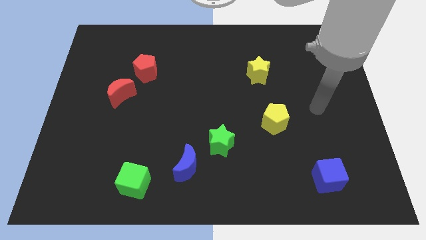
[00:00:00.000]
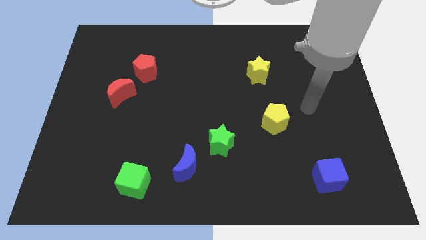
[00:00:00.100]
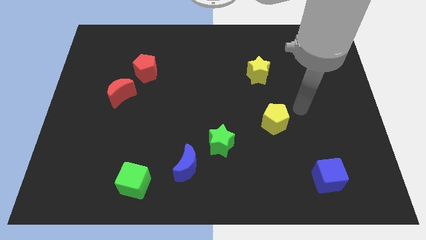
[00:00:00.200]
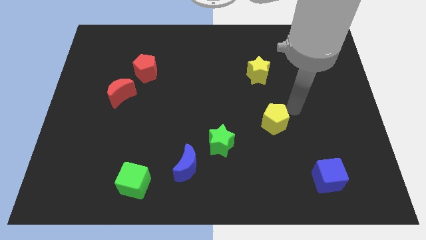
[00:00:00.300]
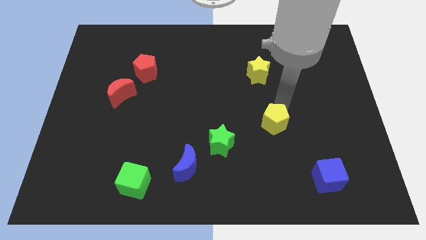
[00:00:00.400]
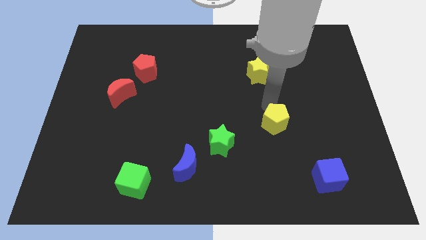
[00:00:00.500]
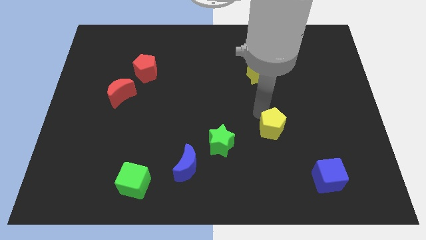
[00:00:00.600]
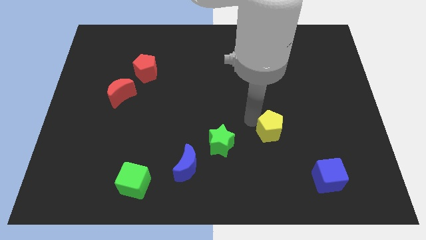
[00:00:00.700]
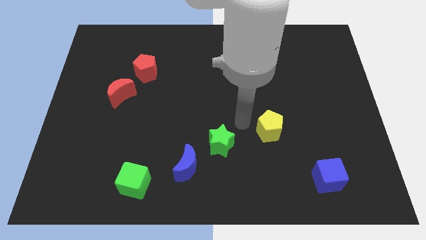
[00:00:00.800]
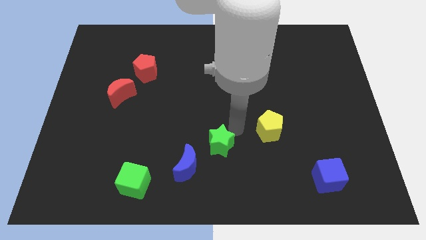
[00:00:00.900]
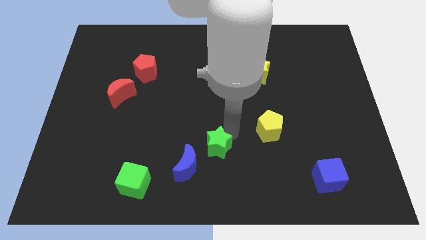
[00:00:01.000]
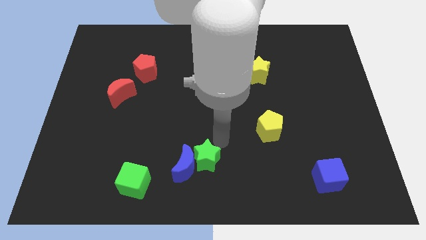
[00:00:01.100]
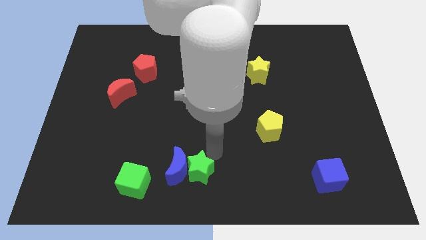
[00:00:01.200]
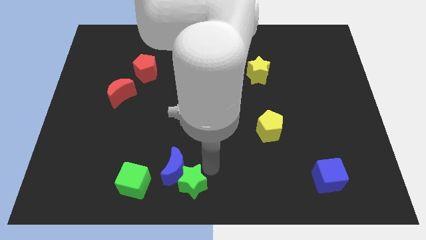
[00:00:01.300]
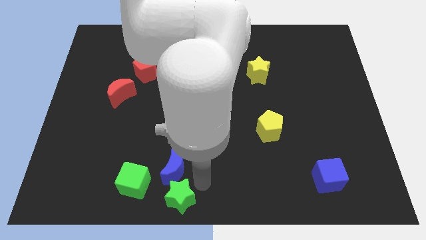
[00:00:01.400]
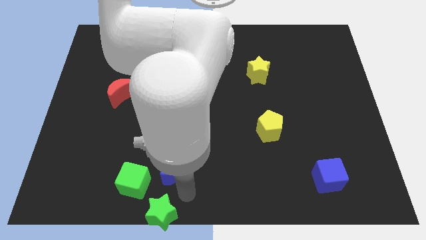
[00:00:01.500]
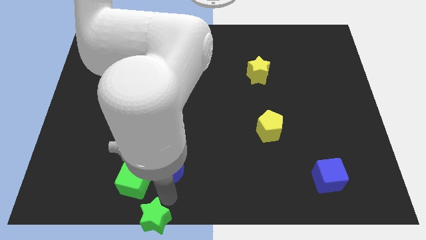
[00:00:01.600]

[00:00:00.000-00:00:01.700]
move the blue moon away from the green star

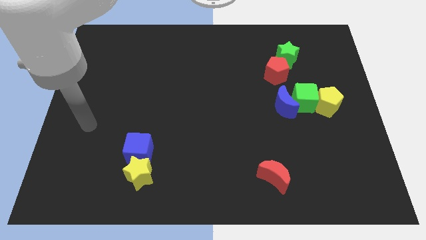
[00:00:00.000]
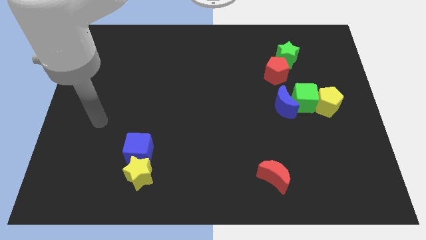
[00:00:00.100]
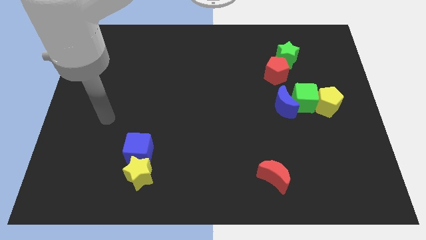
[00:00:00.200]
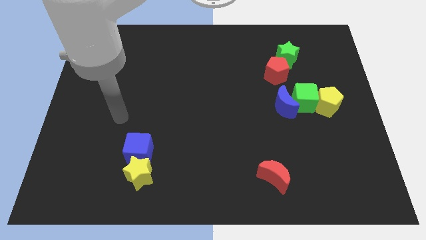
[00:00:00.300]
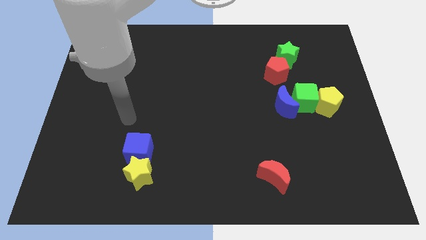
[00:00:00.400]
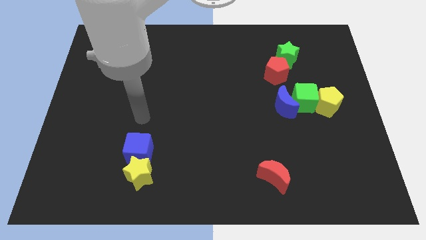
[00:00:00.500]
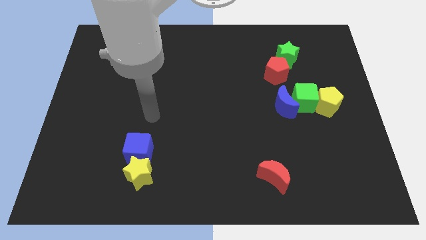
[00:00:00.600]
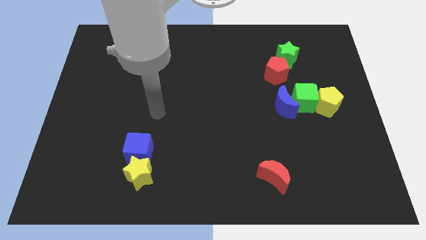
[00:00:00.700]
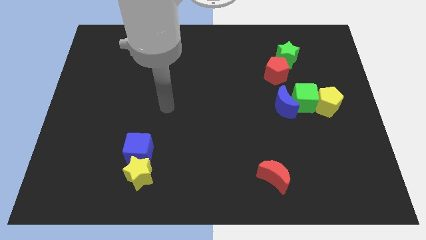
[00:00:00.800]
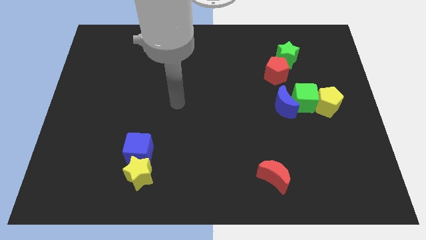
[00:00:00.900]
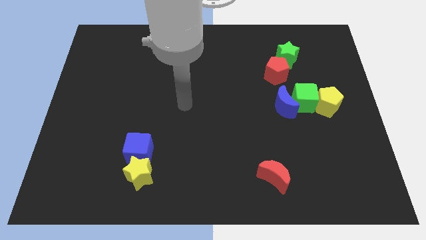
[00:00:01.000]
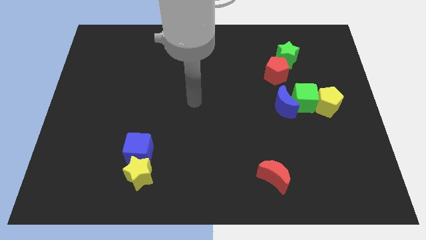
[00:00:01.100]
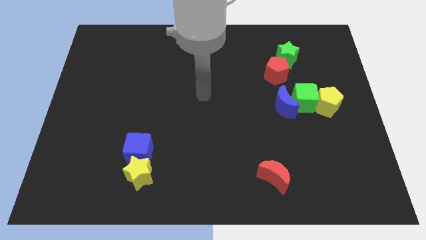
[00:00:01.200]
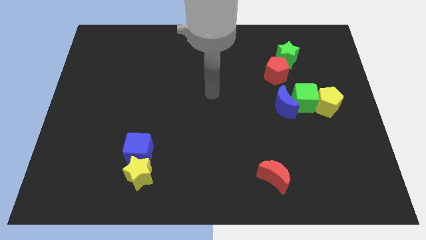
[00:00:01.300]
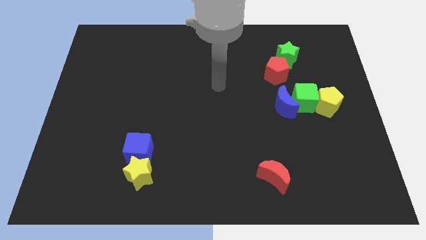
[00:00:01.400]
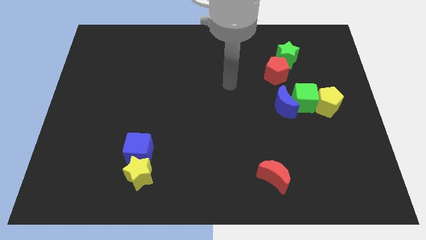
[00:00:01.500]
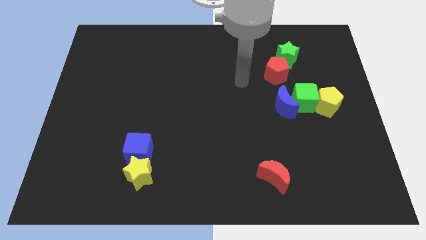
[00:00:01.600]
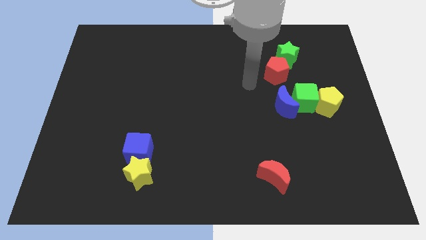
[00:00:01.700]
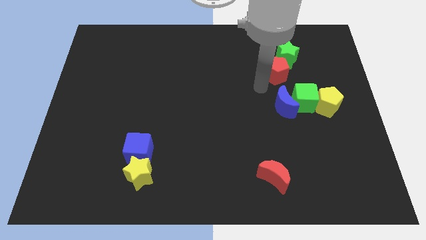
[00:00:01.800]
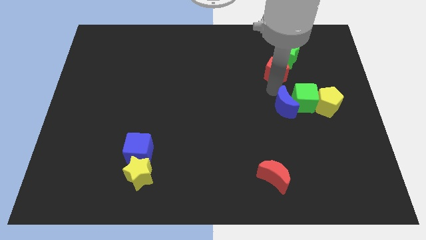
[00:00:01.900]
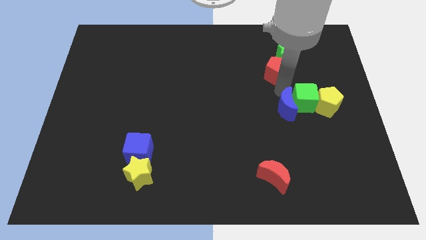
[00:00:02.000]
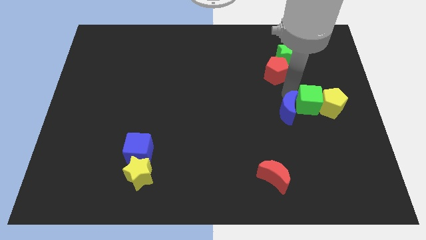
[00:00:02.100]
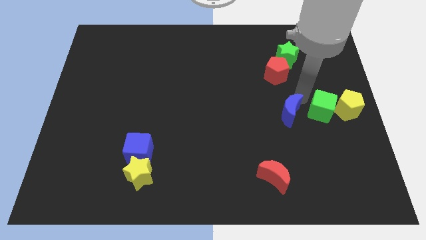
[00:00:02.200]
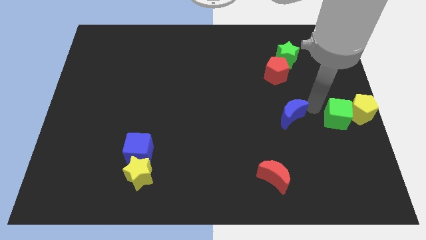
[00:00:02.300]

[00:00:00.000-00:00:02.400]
move the blue moon away from the green cube

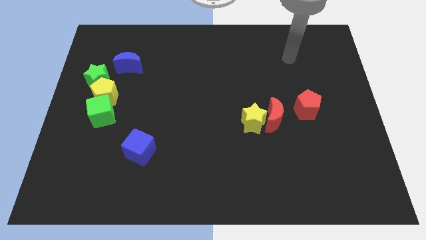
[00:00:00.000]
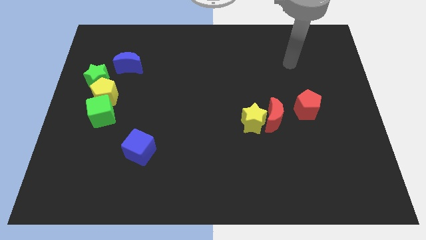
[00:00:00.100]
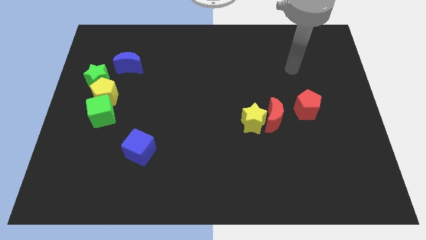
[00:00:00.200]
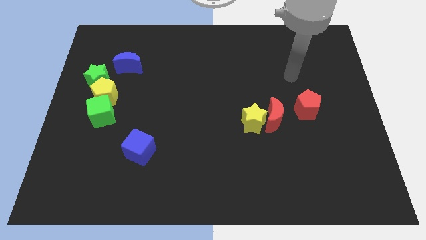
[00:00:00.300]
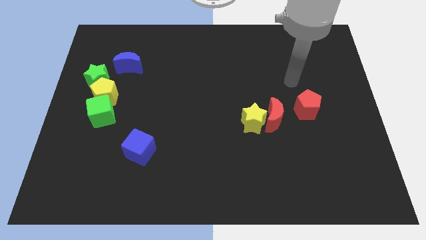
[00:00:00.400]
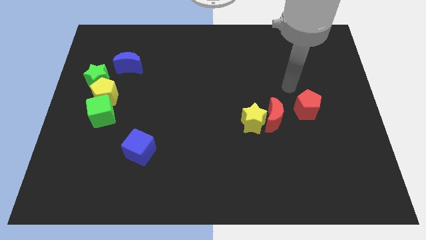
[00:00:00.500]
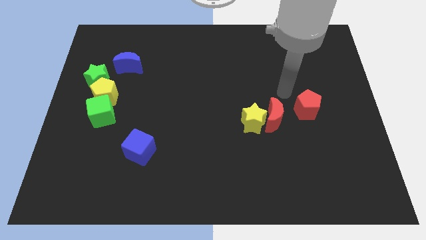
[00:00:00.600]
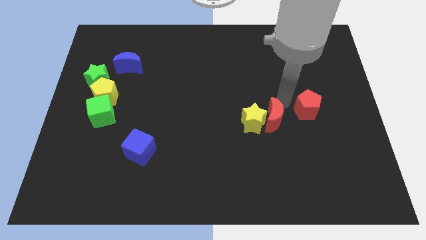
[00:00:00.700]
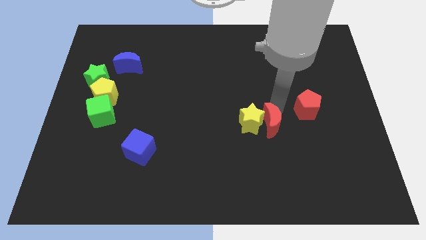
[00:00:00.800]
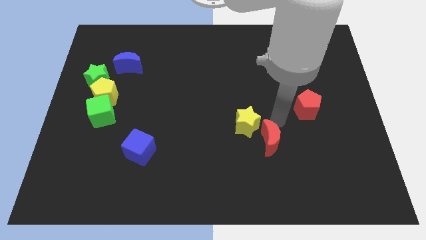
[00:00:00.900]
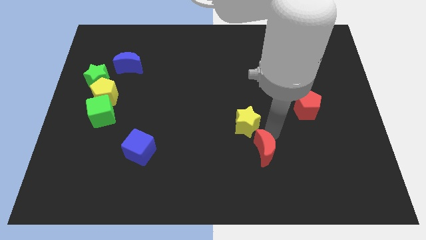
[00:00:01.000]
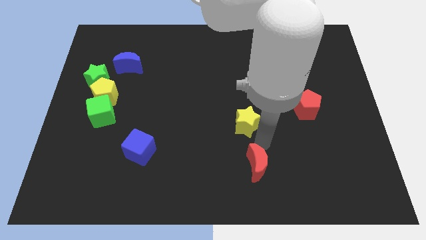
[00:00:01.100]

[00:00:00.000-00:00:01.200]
pull the yellow star apart from the red moon

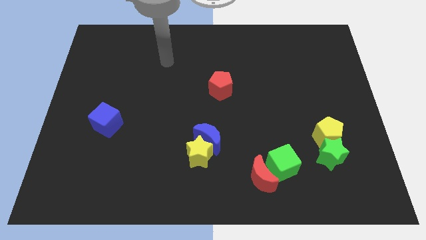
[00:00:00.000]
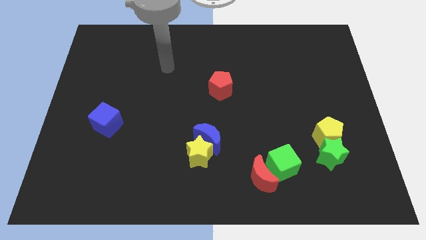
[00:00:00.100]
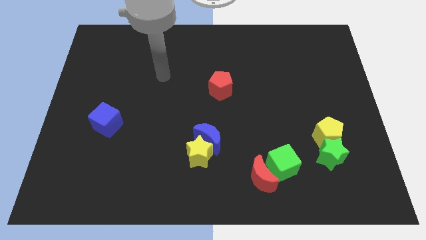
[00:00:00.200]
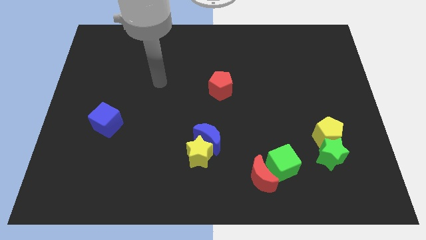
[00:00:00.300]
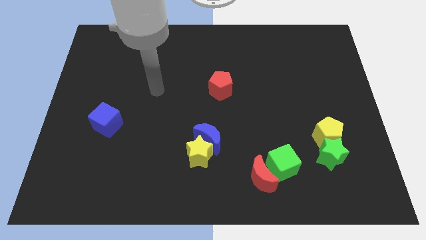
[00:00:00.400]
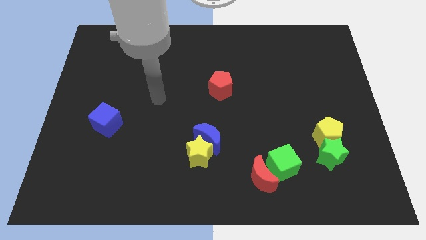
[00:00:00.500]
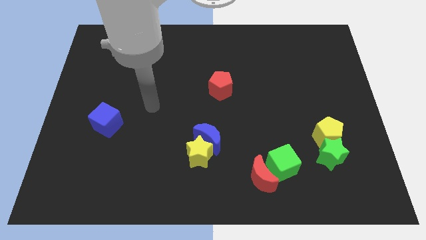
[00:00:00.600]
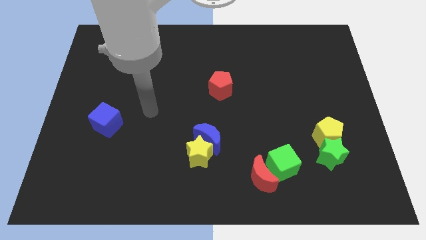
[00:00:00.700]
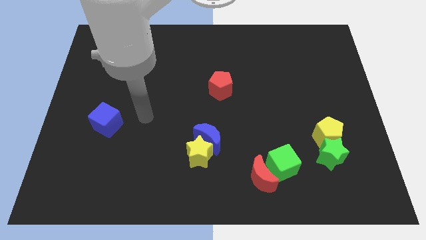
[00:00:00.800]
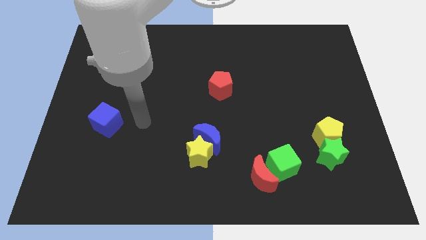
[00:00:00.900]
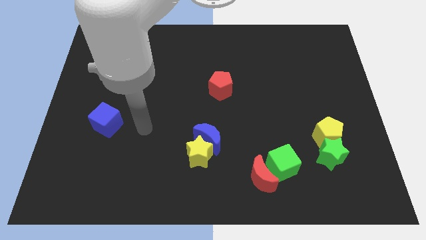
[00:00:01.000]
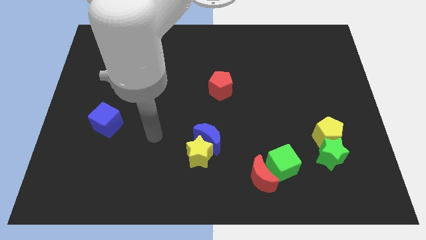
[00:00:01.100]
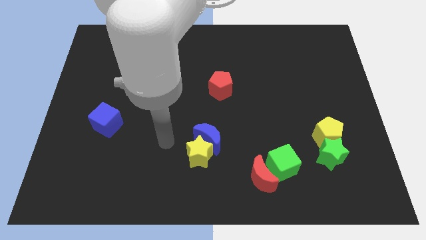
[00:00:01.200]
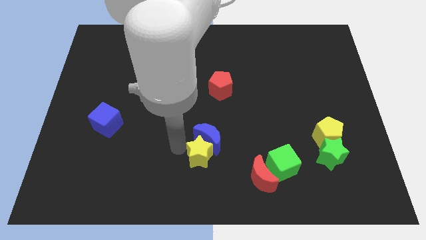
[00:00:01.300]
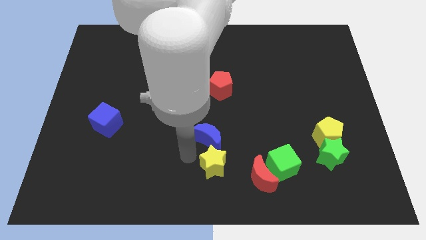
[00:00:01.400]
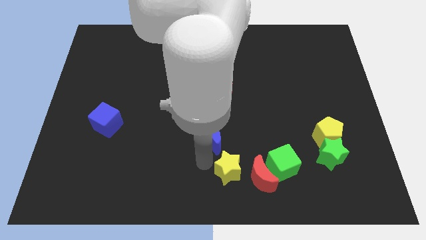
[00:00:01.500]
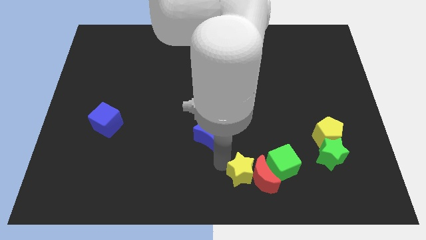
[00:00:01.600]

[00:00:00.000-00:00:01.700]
move the blue moon away from the yellow star

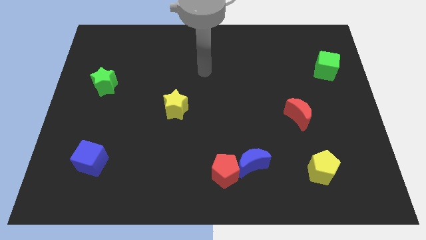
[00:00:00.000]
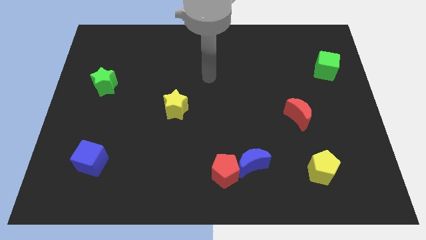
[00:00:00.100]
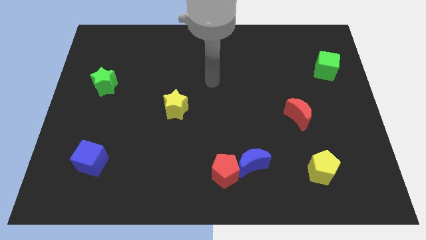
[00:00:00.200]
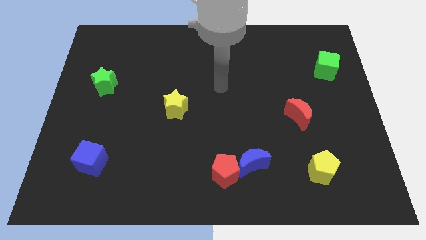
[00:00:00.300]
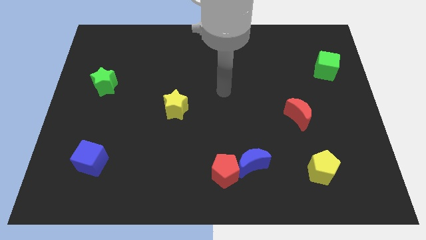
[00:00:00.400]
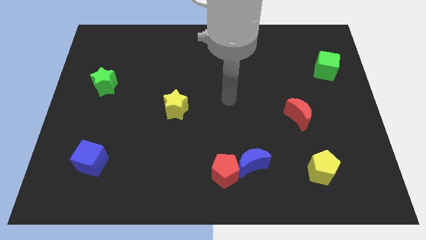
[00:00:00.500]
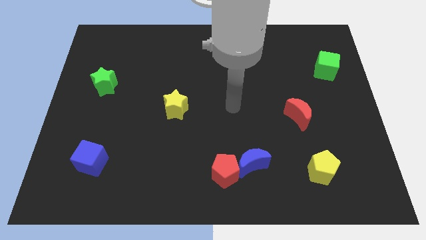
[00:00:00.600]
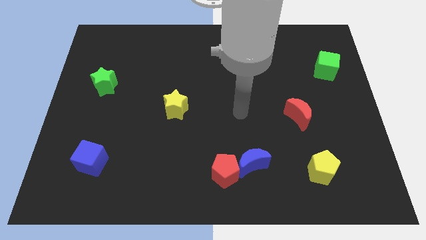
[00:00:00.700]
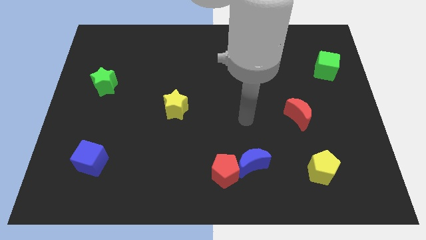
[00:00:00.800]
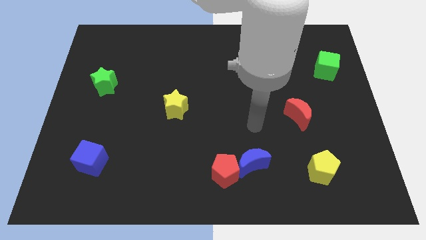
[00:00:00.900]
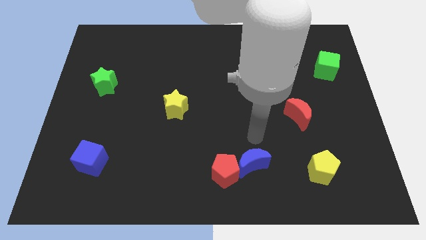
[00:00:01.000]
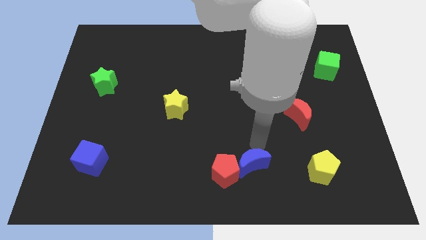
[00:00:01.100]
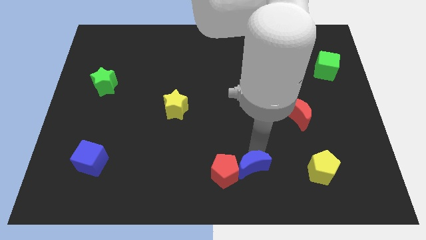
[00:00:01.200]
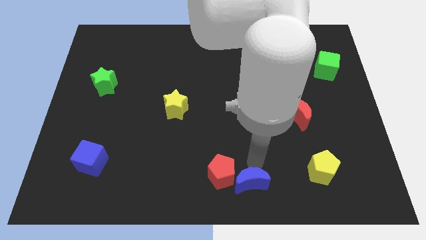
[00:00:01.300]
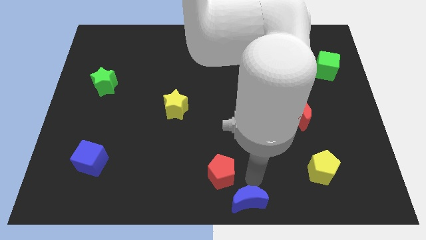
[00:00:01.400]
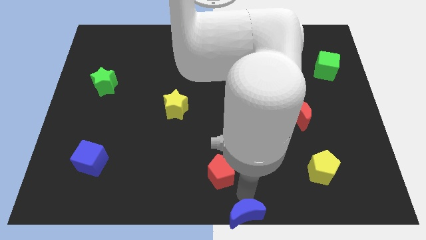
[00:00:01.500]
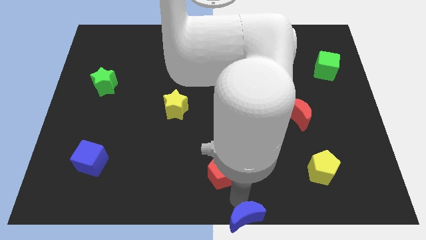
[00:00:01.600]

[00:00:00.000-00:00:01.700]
separate the red pentagon from the blue moon

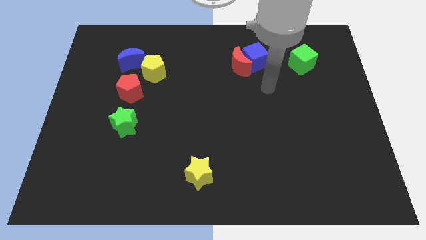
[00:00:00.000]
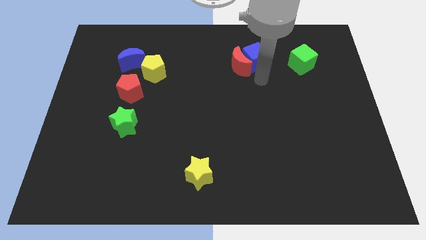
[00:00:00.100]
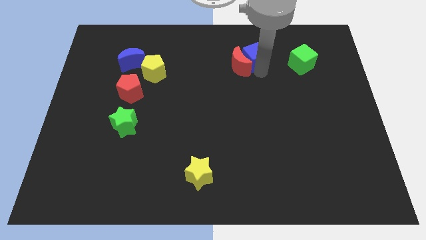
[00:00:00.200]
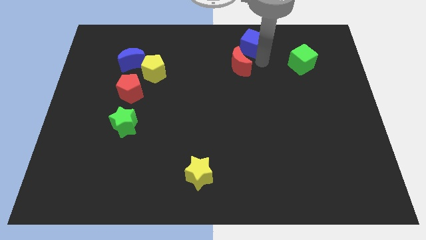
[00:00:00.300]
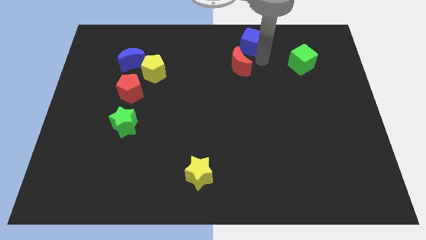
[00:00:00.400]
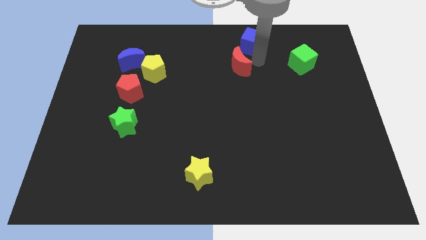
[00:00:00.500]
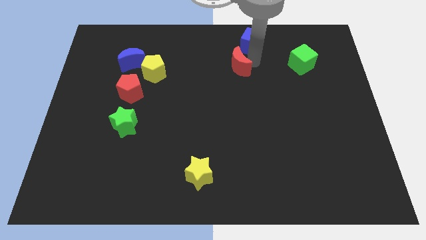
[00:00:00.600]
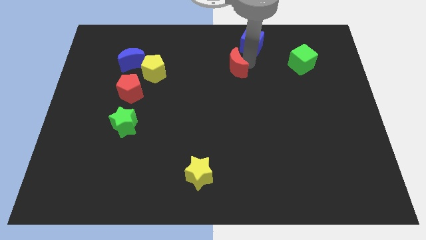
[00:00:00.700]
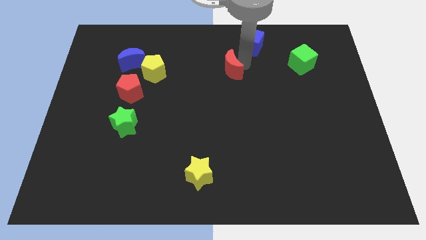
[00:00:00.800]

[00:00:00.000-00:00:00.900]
separate the red moon from the blue cube
